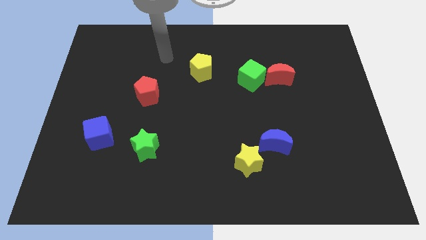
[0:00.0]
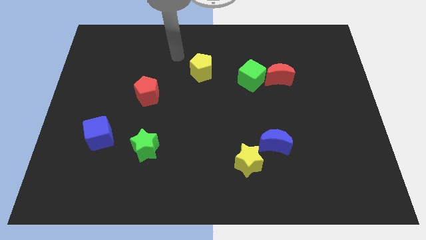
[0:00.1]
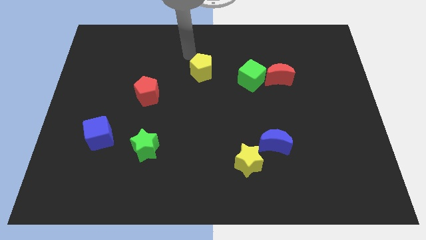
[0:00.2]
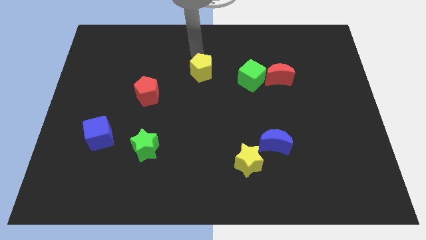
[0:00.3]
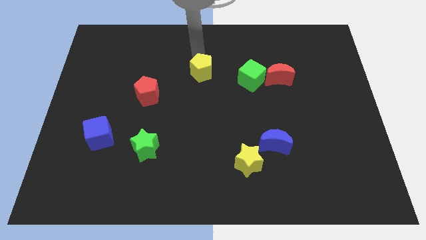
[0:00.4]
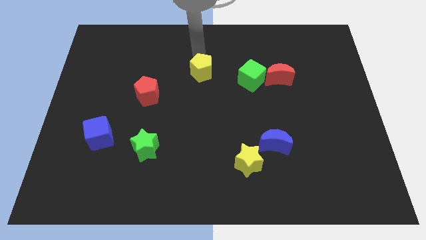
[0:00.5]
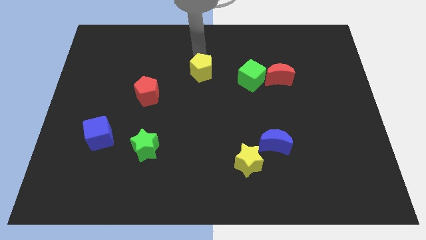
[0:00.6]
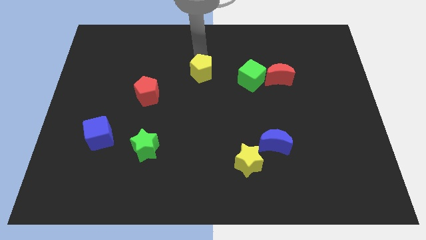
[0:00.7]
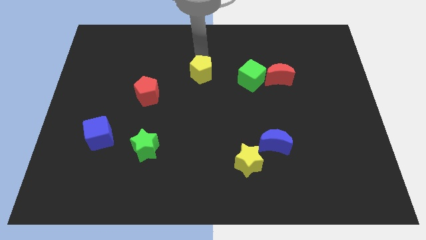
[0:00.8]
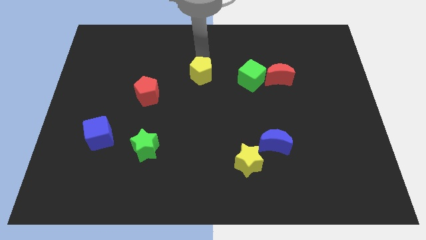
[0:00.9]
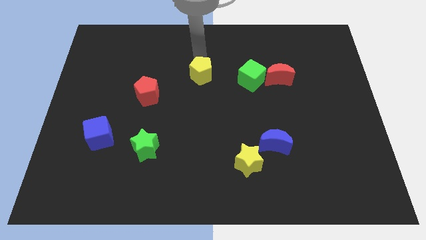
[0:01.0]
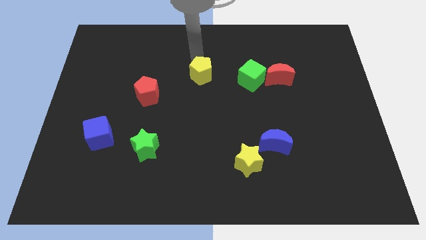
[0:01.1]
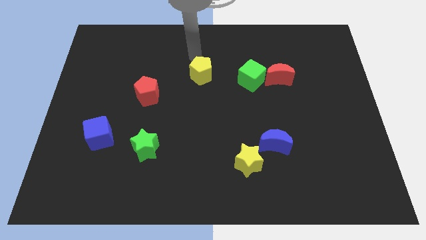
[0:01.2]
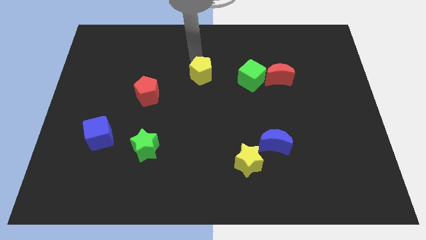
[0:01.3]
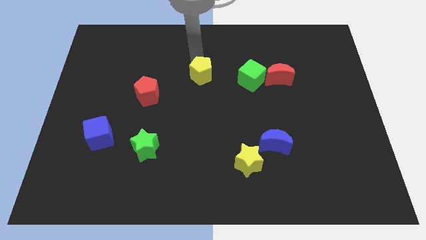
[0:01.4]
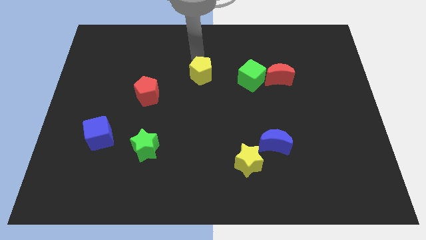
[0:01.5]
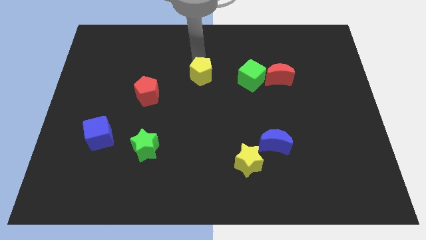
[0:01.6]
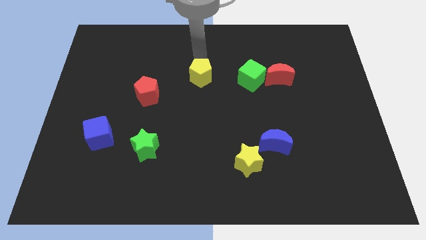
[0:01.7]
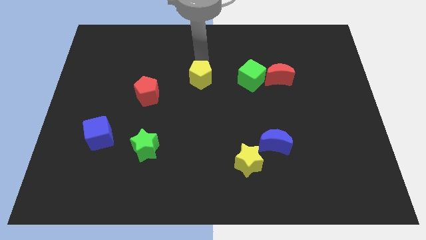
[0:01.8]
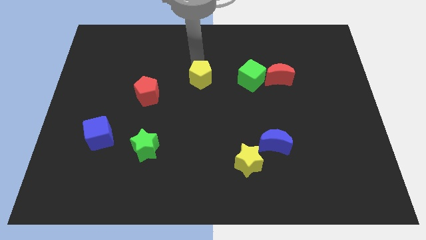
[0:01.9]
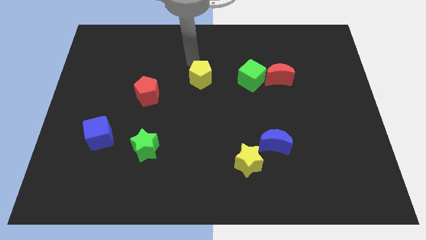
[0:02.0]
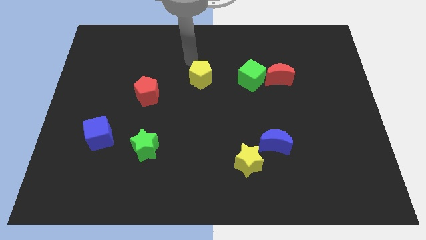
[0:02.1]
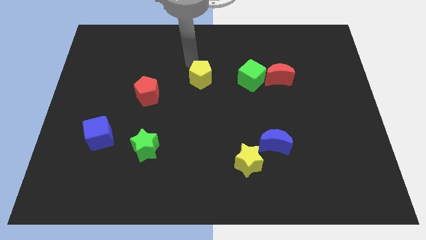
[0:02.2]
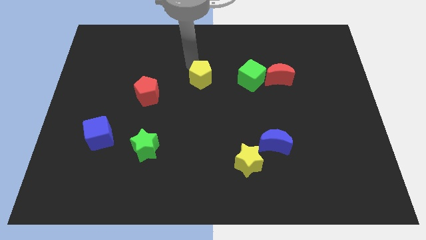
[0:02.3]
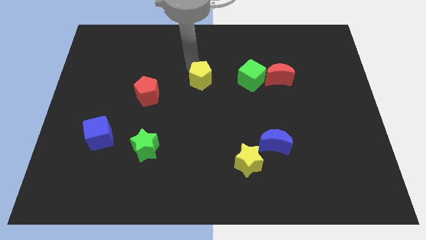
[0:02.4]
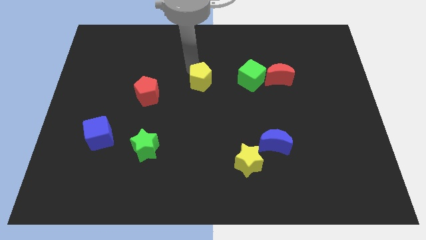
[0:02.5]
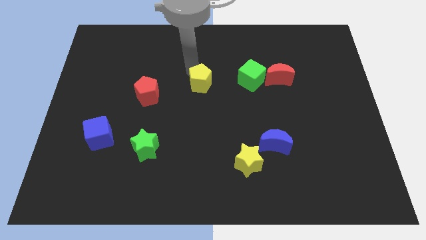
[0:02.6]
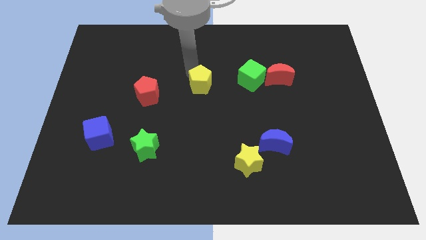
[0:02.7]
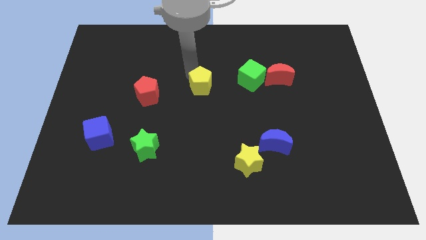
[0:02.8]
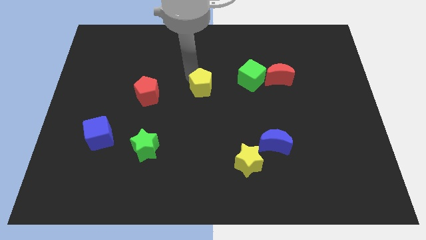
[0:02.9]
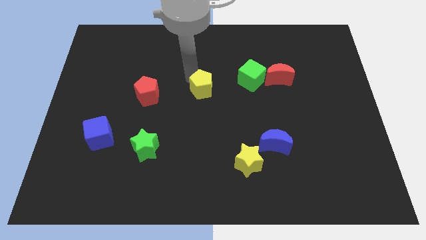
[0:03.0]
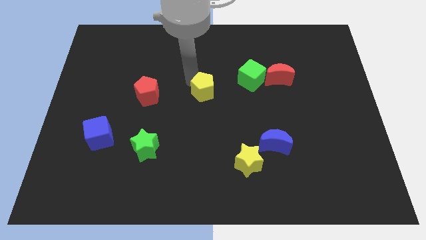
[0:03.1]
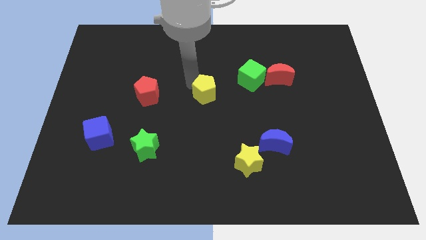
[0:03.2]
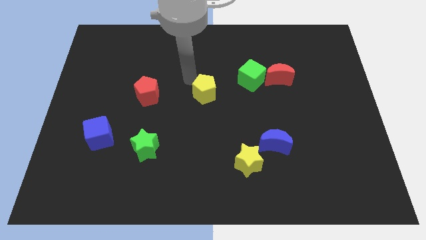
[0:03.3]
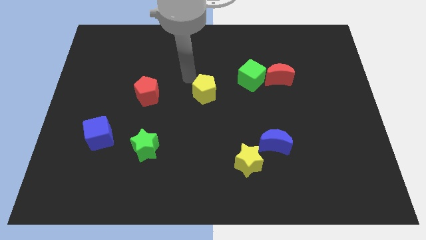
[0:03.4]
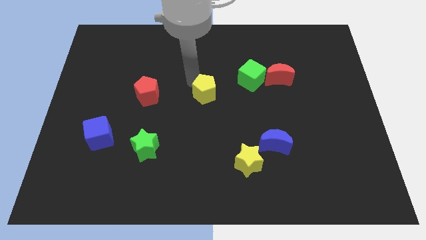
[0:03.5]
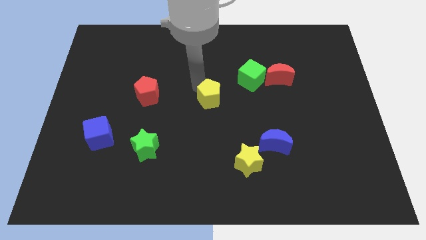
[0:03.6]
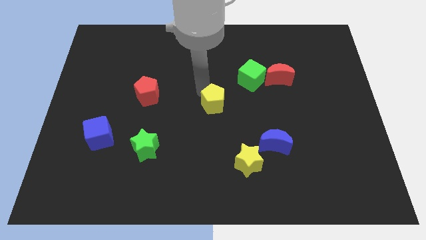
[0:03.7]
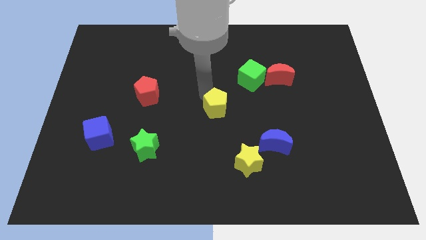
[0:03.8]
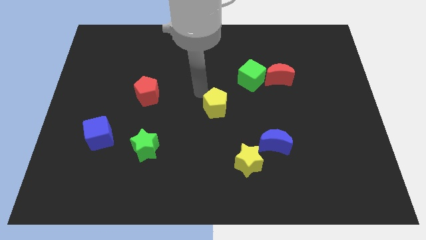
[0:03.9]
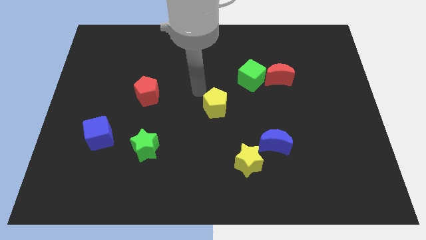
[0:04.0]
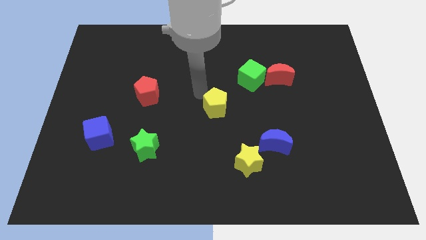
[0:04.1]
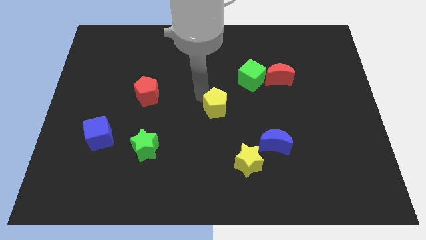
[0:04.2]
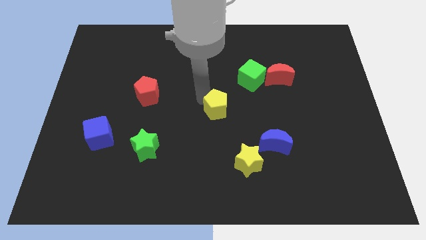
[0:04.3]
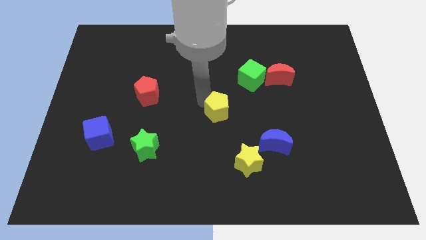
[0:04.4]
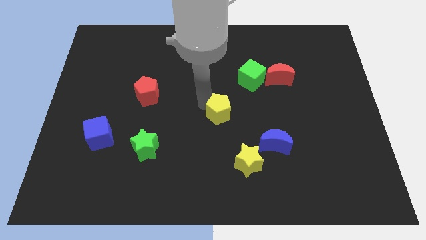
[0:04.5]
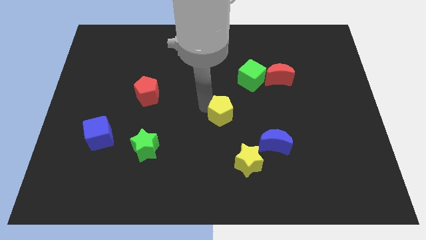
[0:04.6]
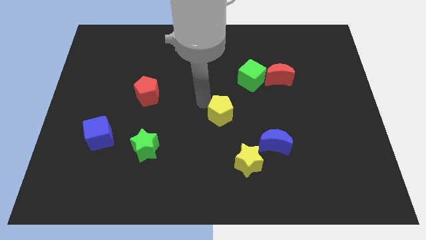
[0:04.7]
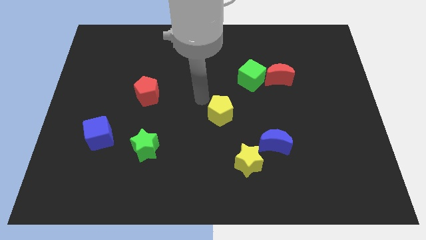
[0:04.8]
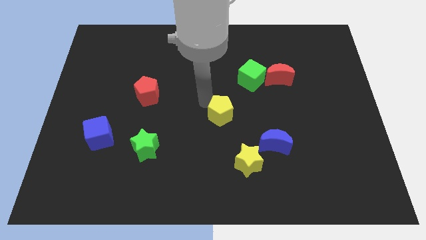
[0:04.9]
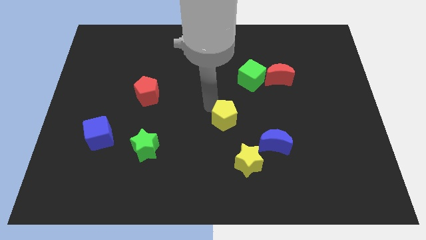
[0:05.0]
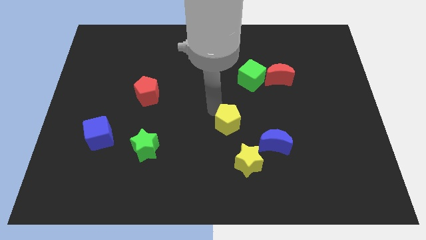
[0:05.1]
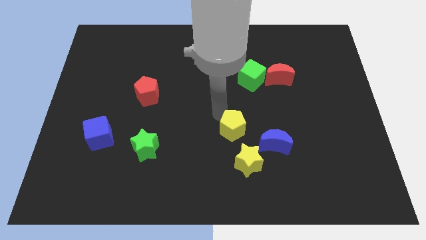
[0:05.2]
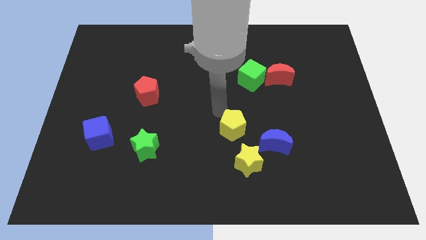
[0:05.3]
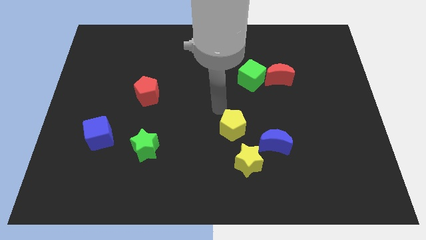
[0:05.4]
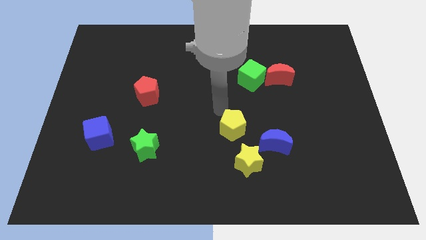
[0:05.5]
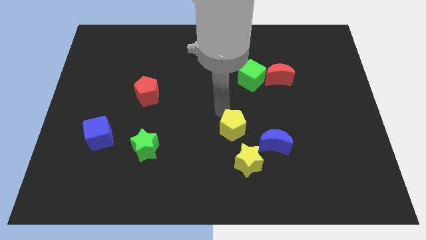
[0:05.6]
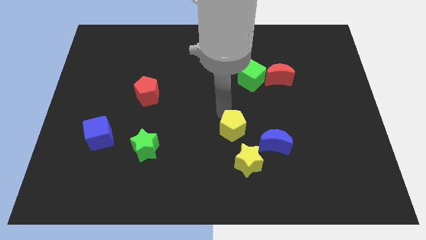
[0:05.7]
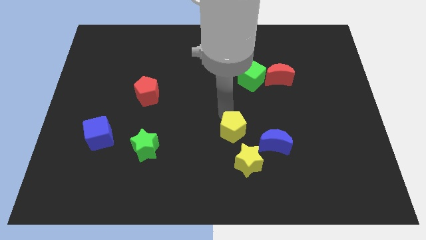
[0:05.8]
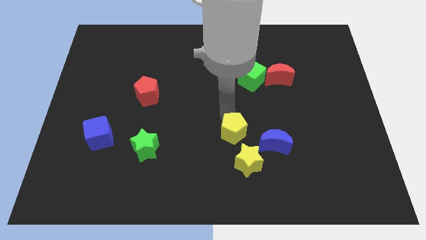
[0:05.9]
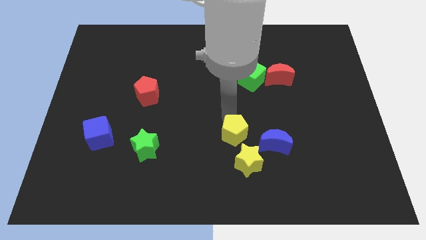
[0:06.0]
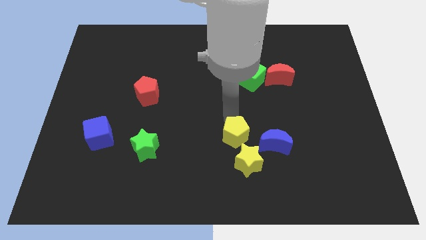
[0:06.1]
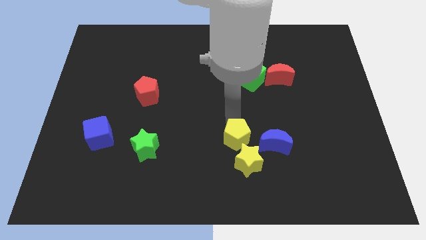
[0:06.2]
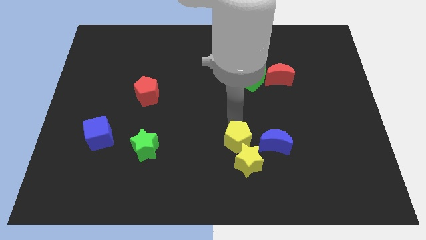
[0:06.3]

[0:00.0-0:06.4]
put the yellow pentagon close to the yellow star

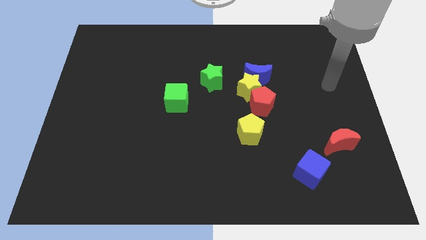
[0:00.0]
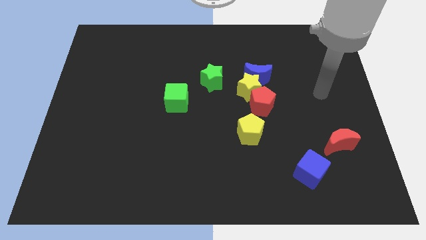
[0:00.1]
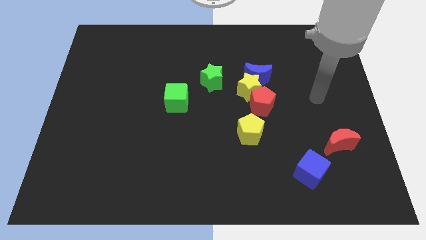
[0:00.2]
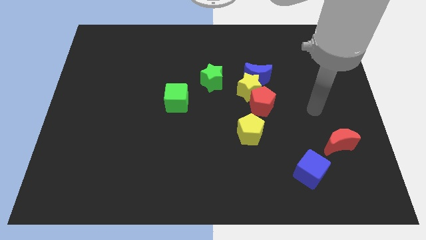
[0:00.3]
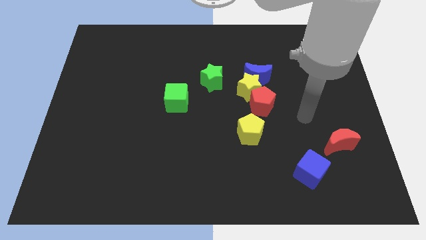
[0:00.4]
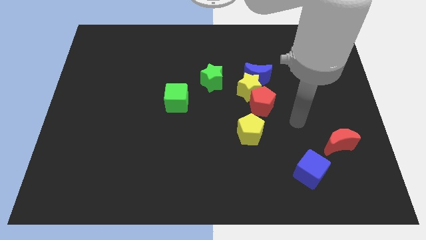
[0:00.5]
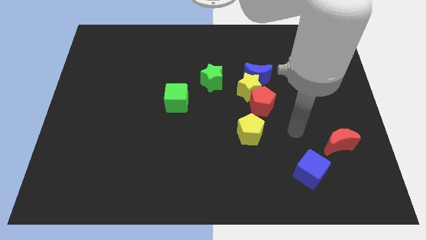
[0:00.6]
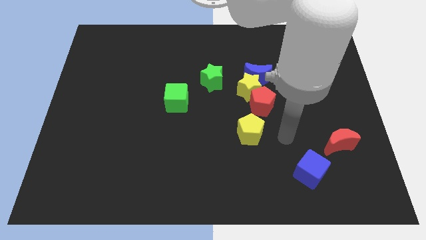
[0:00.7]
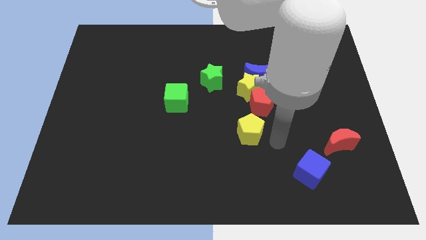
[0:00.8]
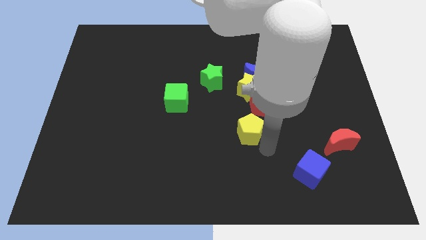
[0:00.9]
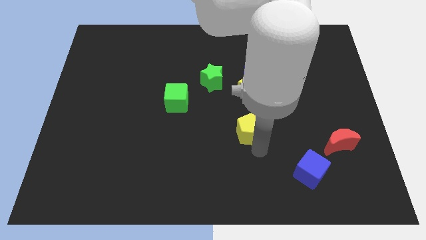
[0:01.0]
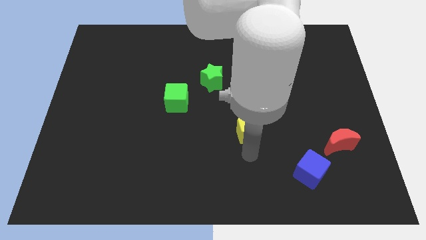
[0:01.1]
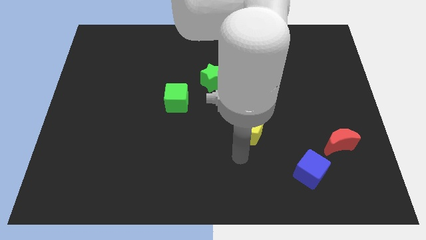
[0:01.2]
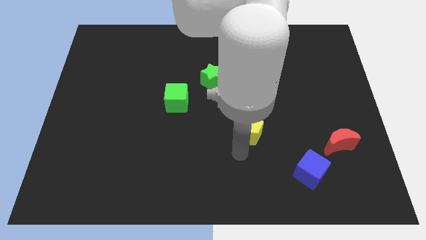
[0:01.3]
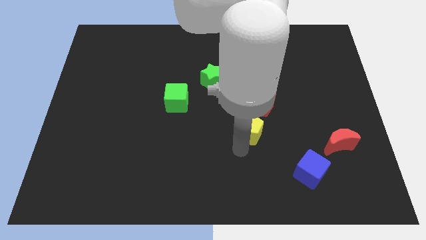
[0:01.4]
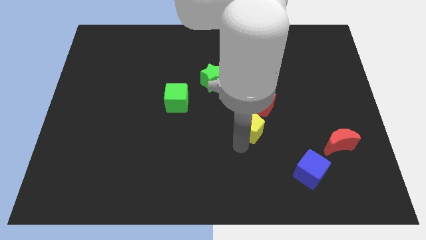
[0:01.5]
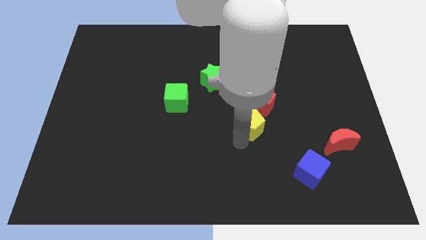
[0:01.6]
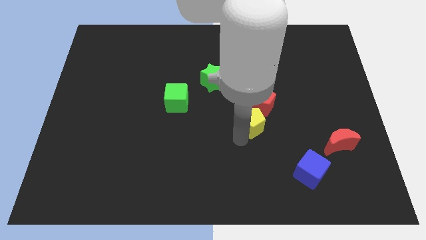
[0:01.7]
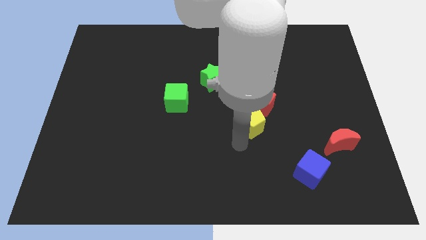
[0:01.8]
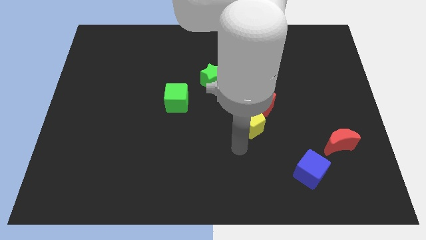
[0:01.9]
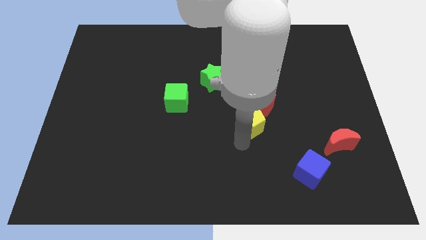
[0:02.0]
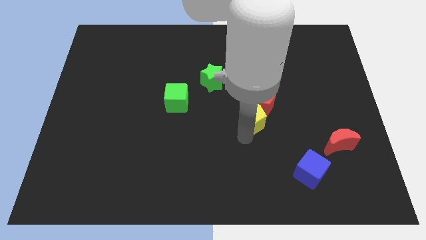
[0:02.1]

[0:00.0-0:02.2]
put the yellow pentagon to the red pentagon
